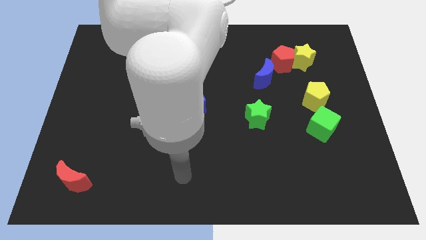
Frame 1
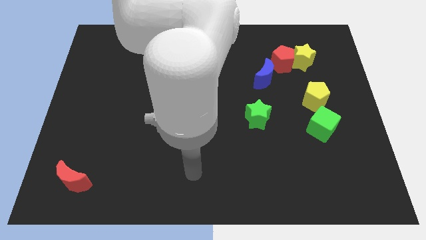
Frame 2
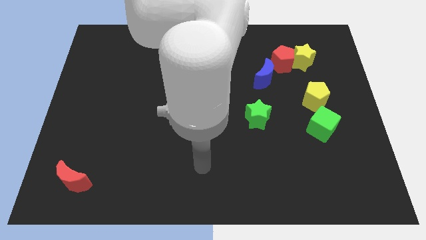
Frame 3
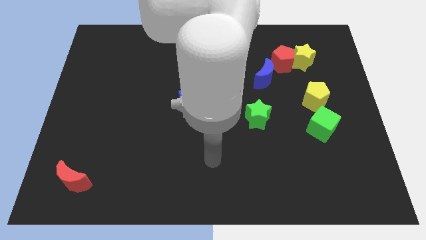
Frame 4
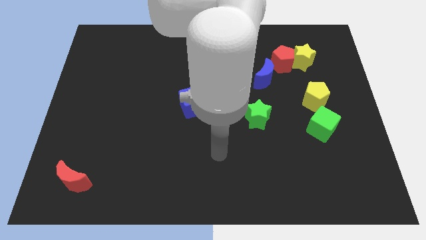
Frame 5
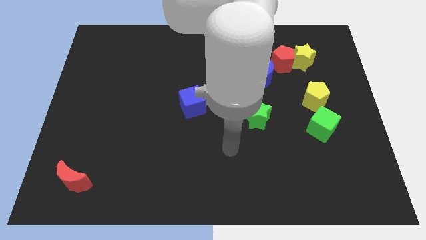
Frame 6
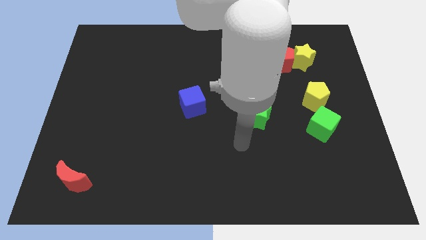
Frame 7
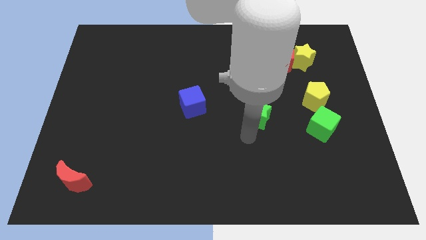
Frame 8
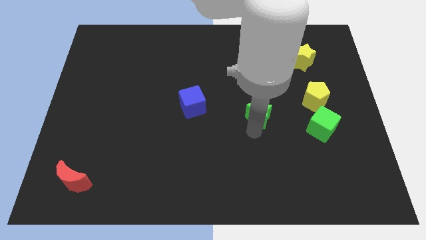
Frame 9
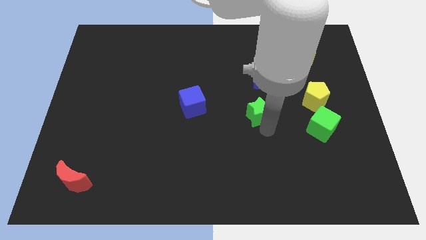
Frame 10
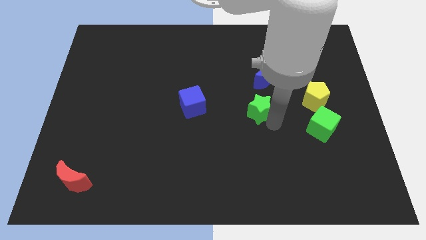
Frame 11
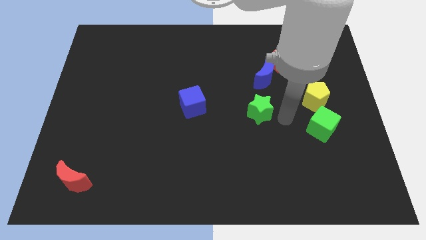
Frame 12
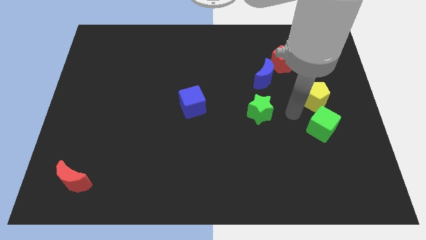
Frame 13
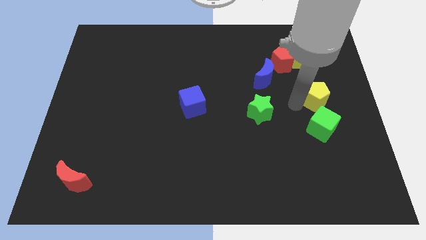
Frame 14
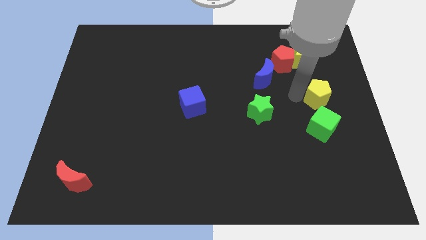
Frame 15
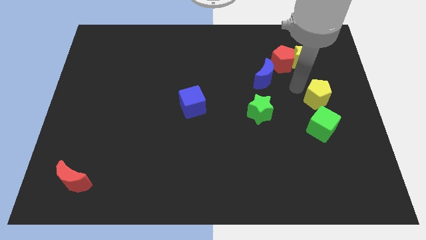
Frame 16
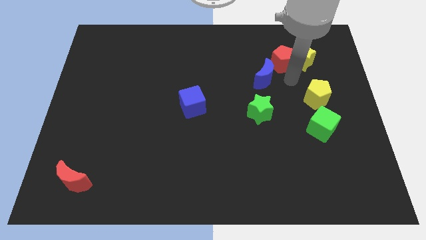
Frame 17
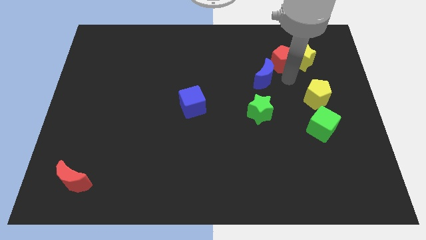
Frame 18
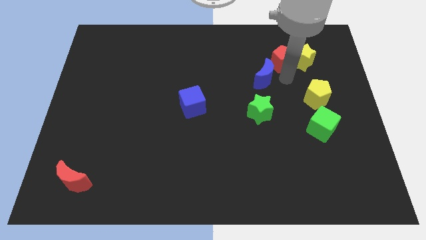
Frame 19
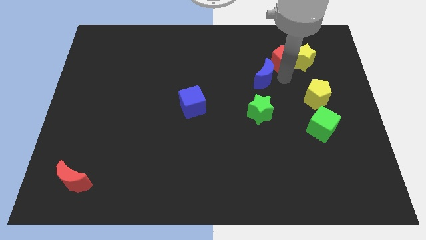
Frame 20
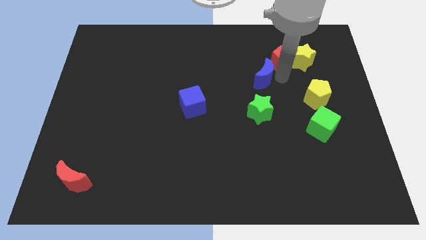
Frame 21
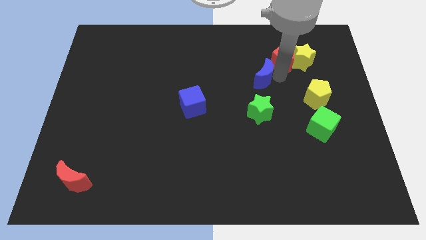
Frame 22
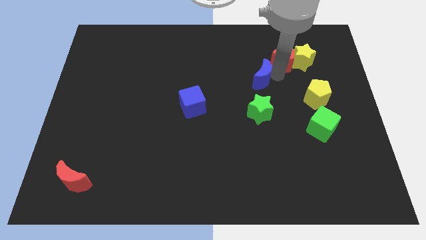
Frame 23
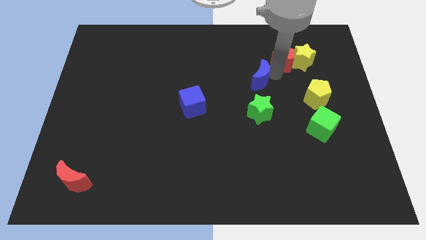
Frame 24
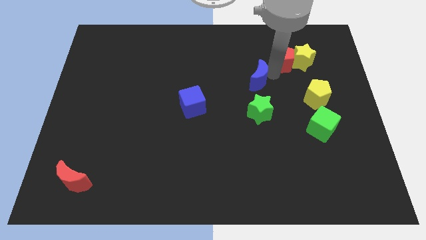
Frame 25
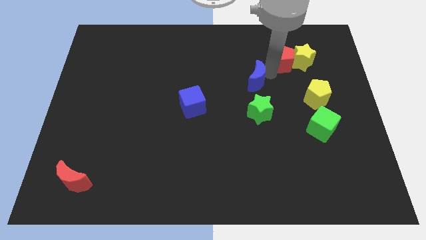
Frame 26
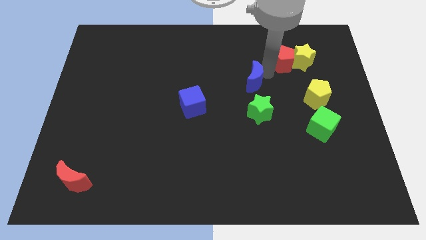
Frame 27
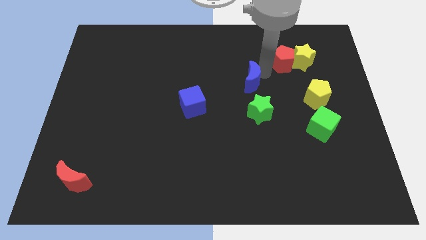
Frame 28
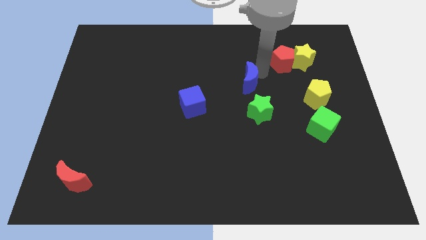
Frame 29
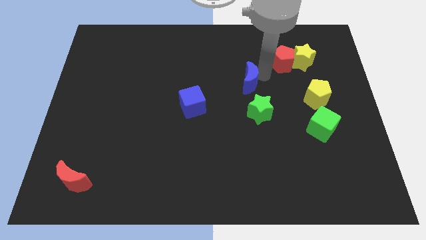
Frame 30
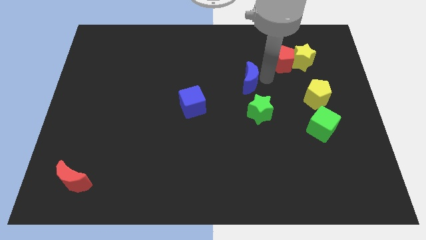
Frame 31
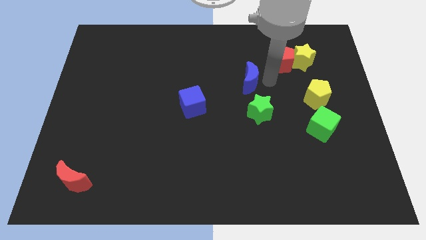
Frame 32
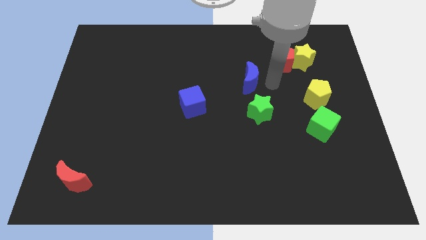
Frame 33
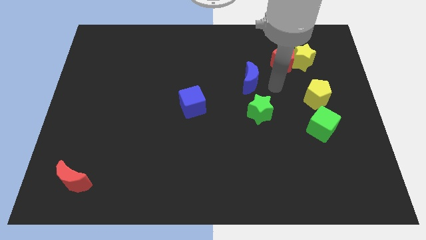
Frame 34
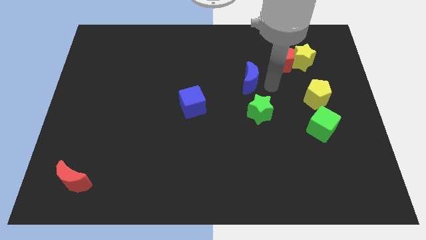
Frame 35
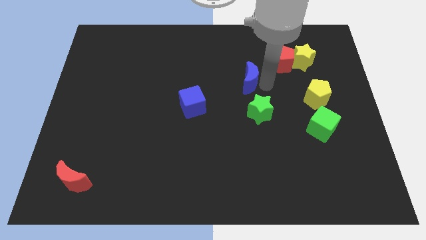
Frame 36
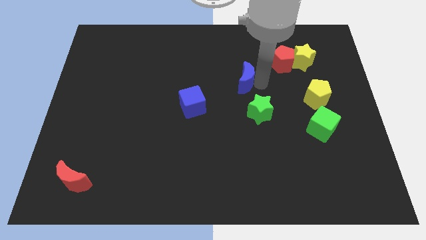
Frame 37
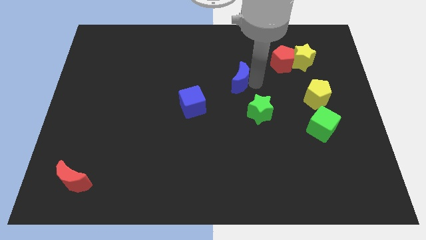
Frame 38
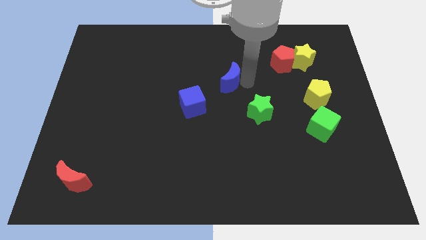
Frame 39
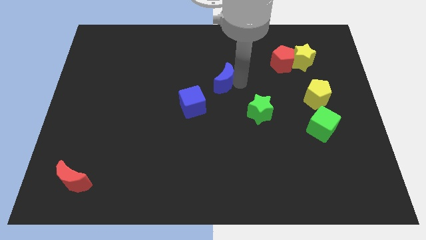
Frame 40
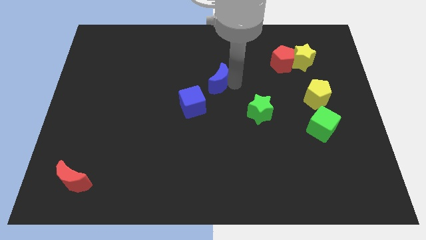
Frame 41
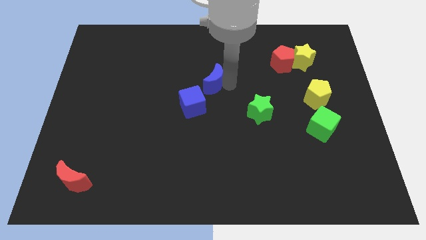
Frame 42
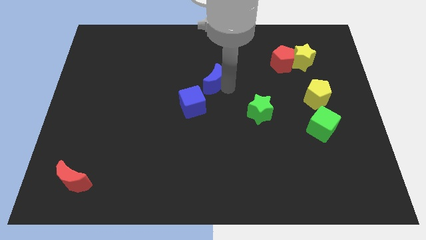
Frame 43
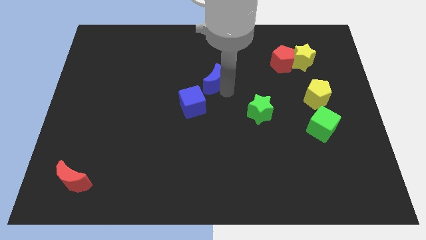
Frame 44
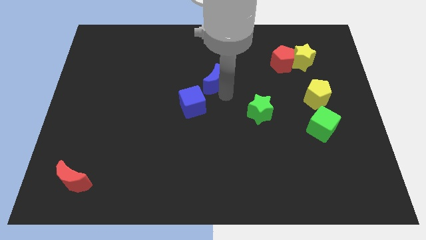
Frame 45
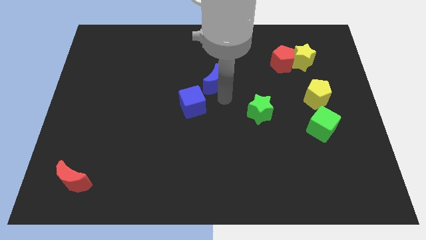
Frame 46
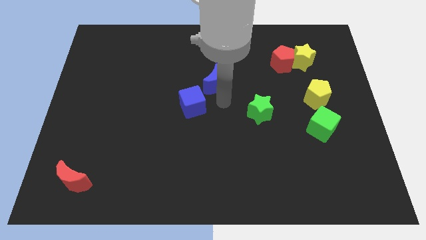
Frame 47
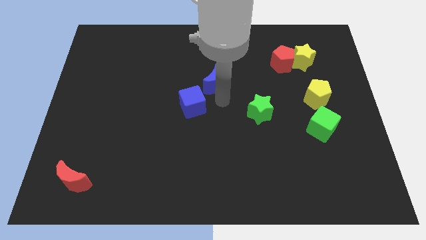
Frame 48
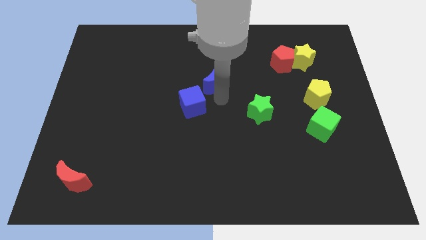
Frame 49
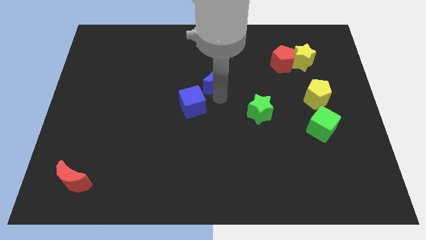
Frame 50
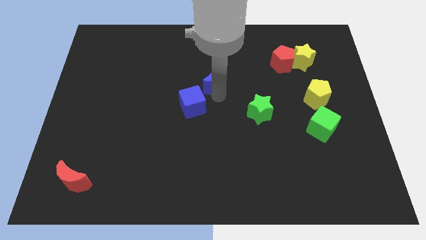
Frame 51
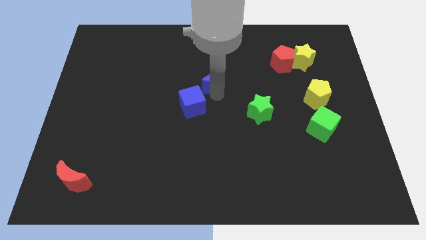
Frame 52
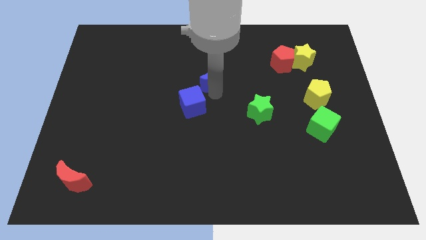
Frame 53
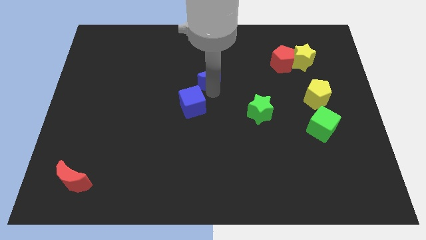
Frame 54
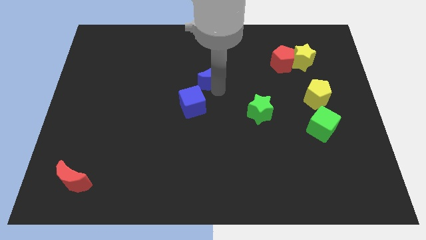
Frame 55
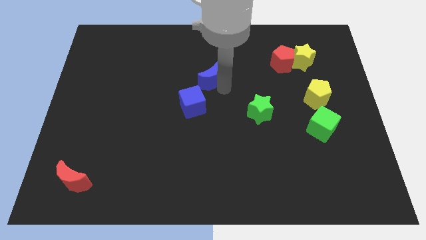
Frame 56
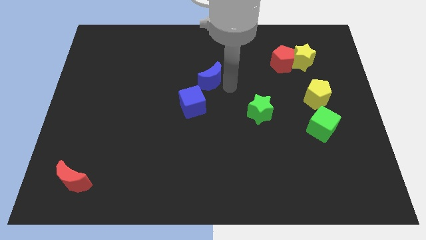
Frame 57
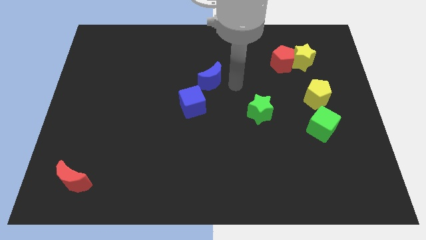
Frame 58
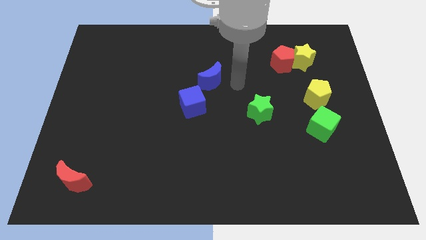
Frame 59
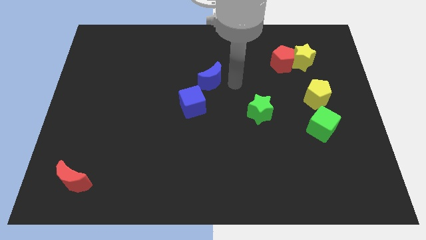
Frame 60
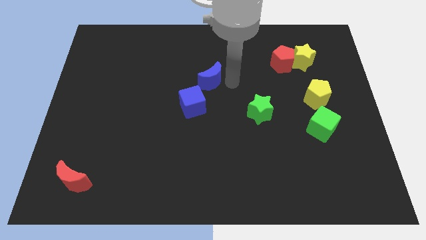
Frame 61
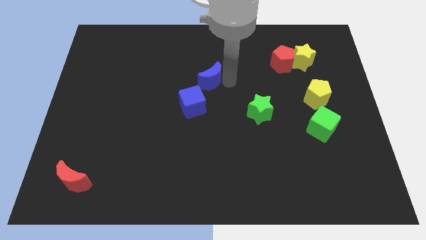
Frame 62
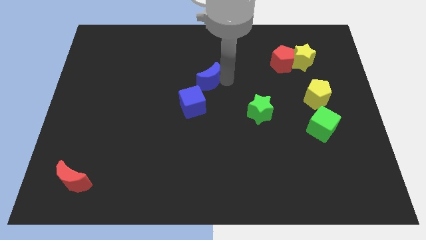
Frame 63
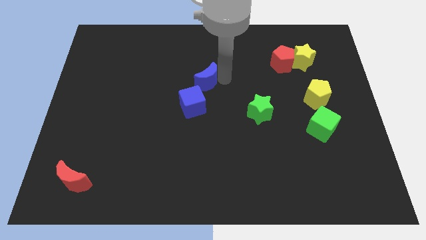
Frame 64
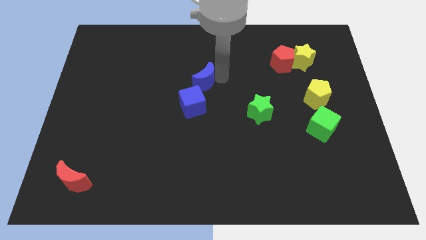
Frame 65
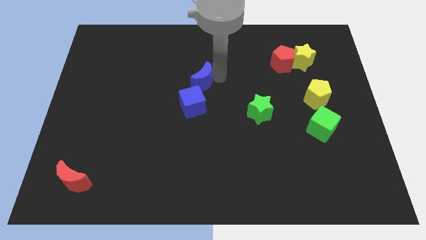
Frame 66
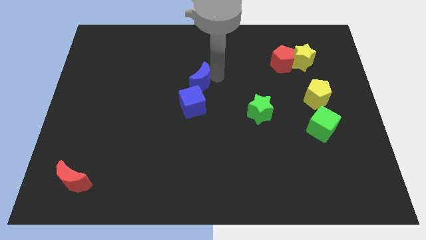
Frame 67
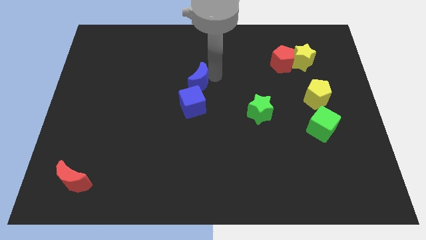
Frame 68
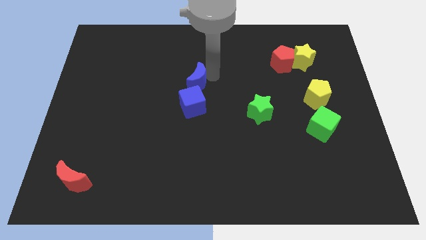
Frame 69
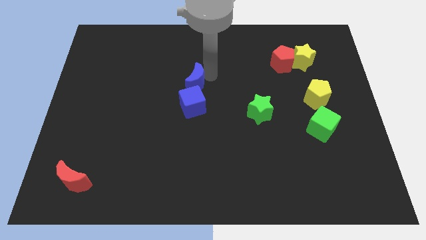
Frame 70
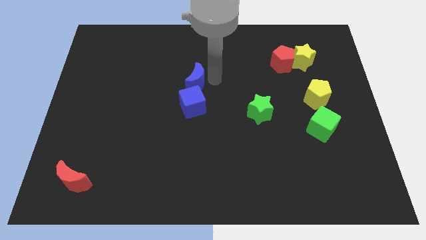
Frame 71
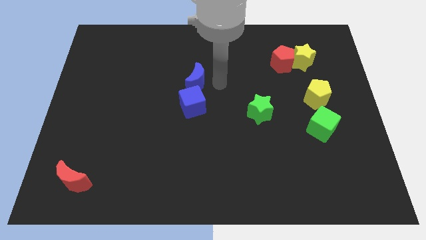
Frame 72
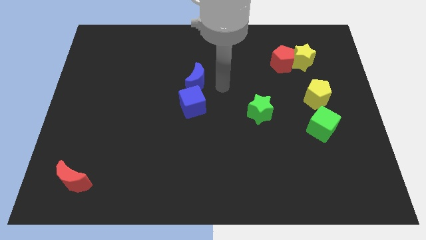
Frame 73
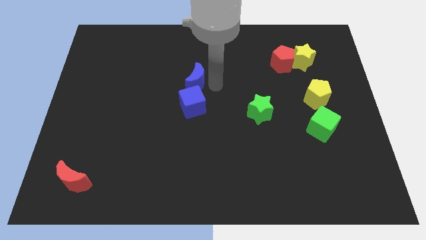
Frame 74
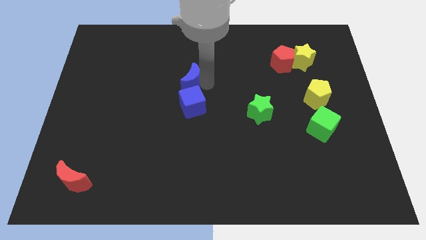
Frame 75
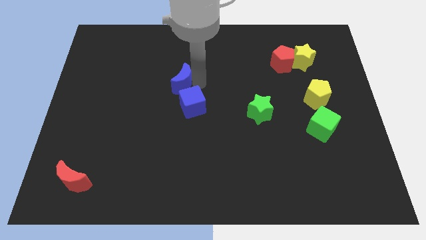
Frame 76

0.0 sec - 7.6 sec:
push the blue moon to the left

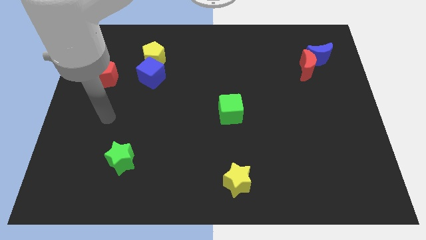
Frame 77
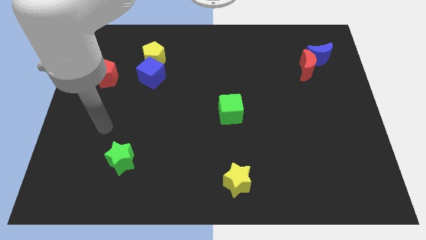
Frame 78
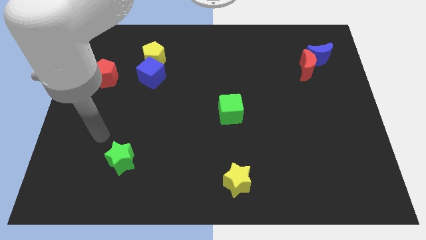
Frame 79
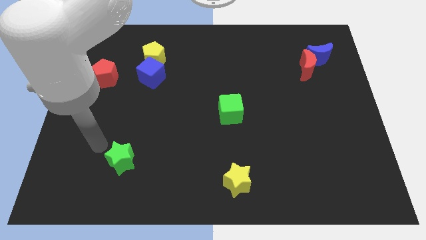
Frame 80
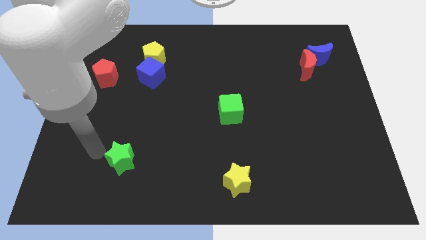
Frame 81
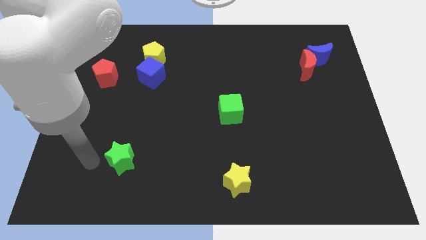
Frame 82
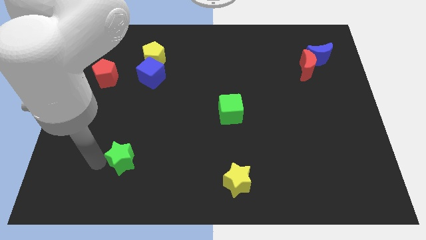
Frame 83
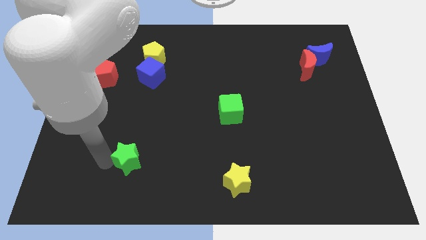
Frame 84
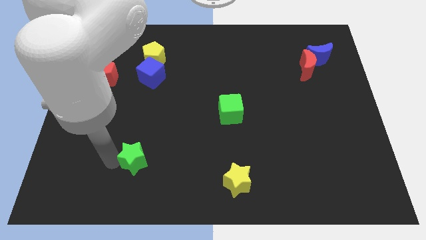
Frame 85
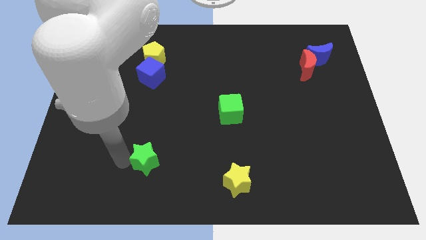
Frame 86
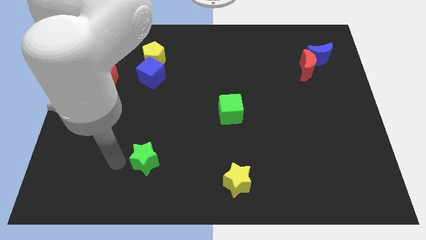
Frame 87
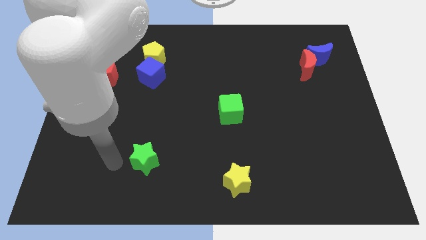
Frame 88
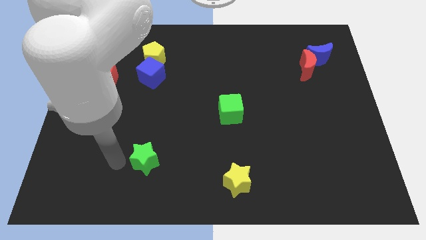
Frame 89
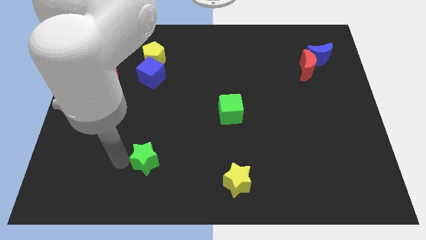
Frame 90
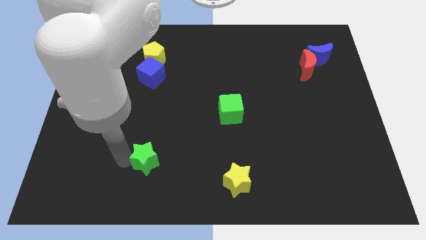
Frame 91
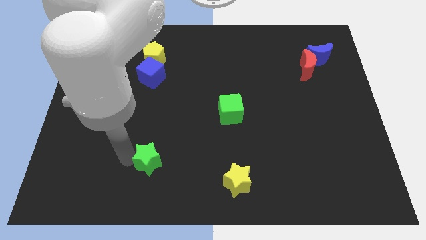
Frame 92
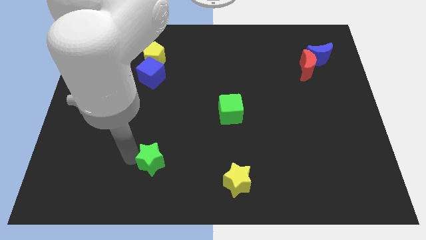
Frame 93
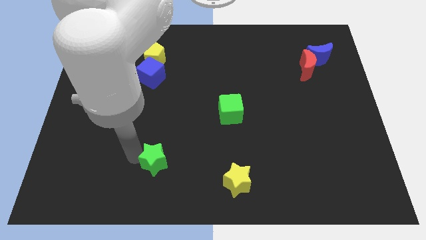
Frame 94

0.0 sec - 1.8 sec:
slightly push the green star to the right
